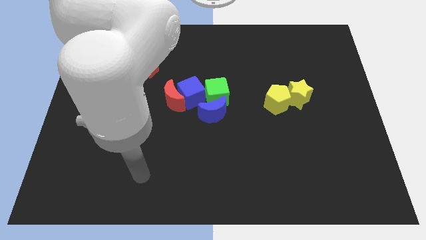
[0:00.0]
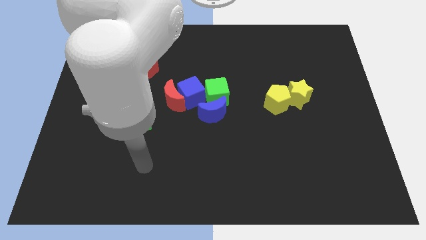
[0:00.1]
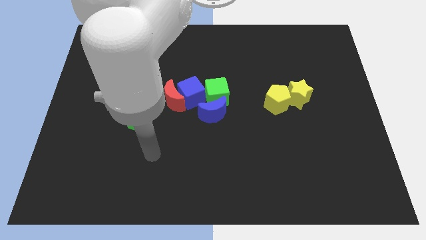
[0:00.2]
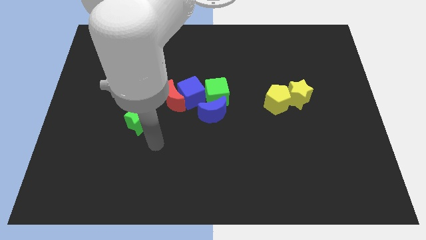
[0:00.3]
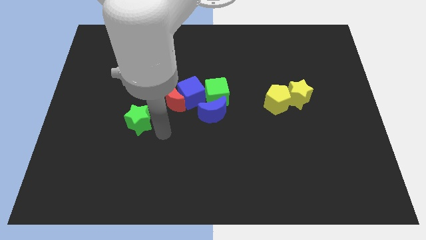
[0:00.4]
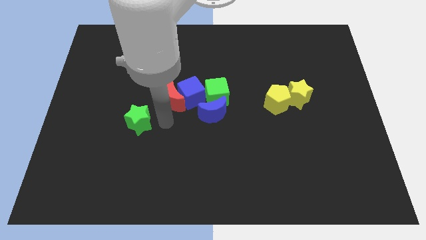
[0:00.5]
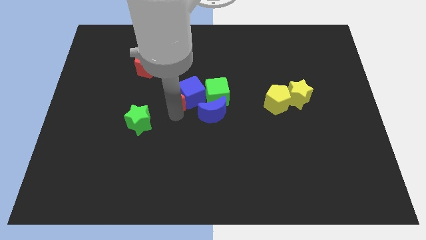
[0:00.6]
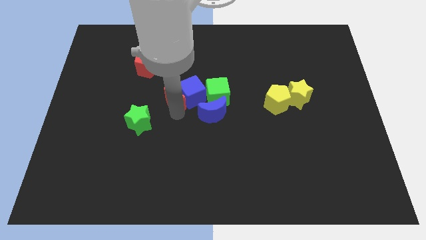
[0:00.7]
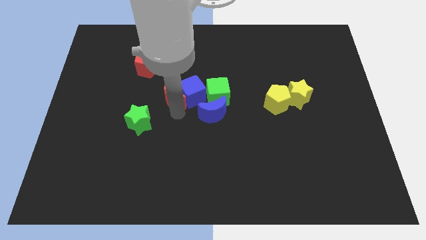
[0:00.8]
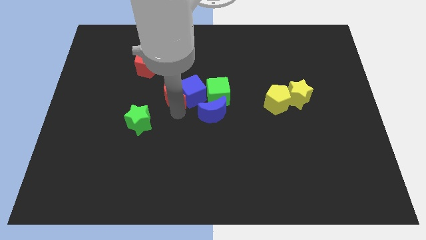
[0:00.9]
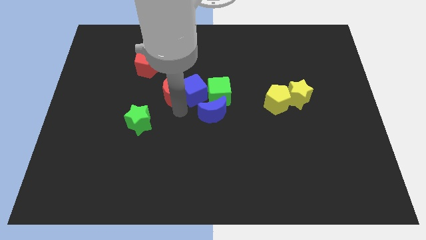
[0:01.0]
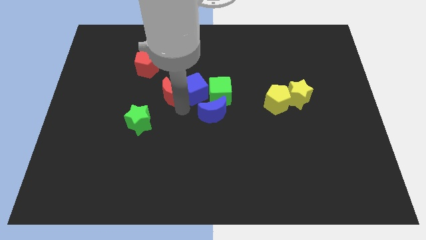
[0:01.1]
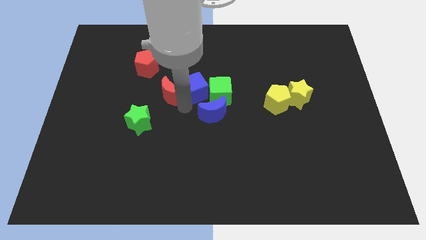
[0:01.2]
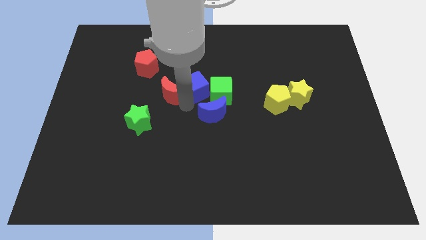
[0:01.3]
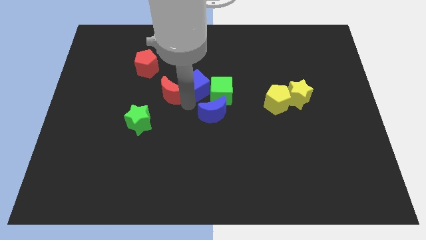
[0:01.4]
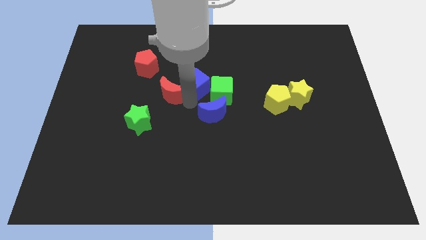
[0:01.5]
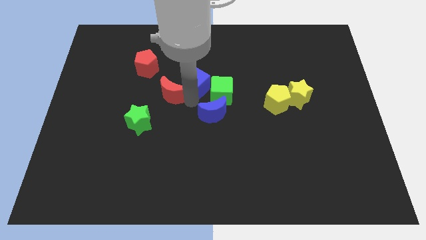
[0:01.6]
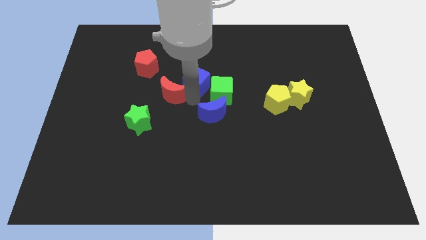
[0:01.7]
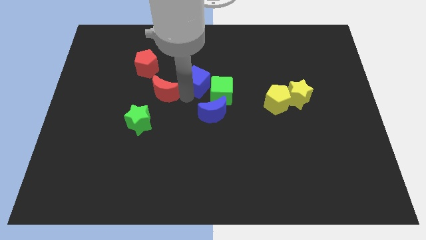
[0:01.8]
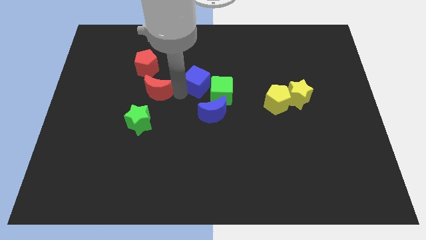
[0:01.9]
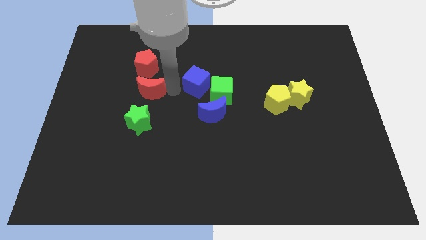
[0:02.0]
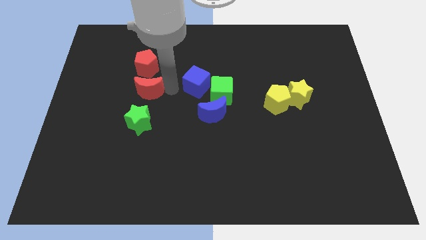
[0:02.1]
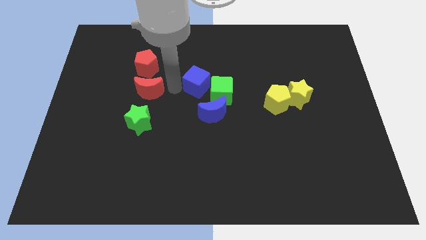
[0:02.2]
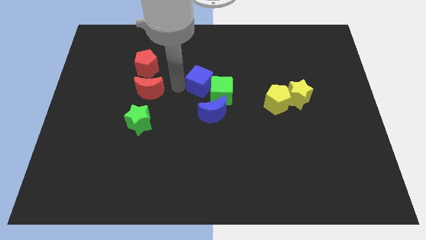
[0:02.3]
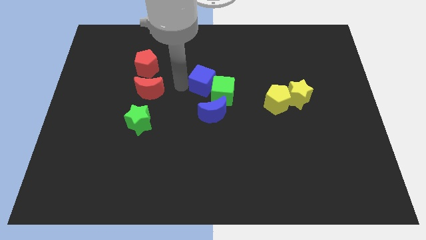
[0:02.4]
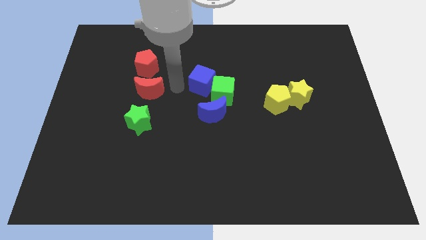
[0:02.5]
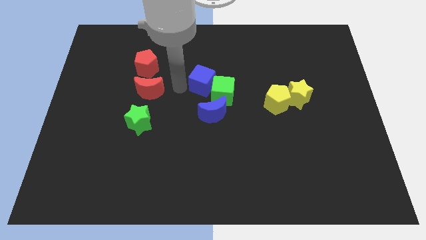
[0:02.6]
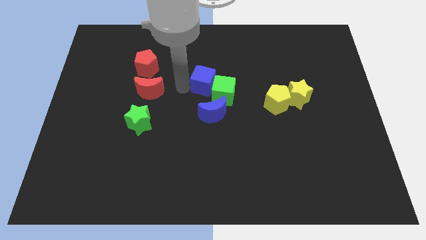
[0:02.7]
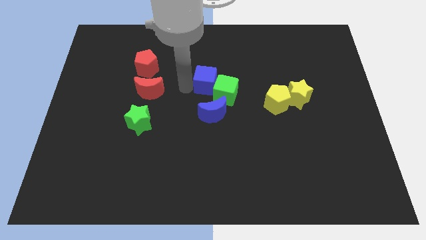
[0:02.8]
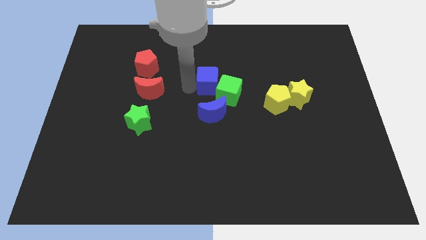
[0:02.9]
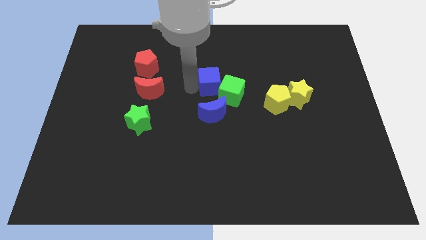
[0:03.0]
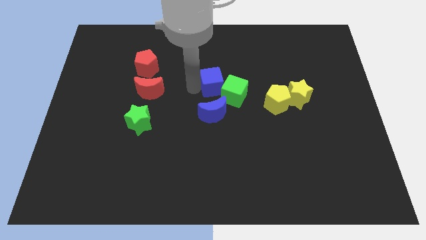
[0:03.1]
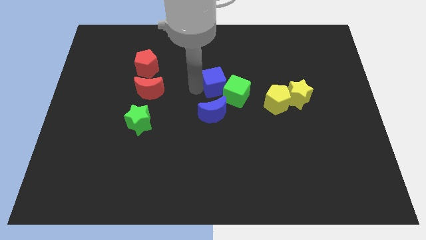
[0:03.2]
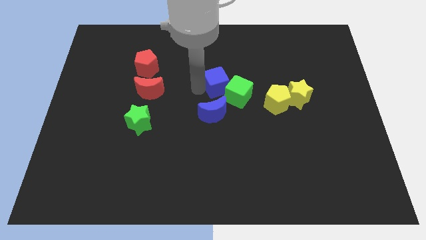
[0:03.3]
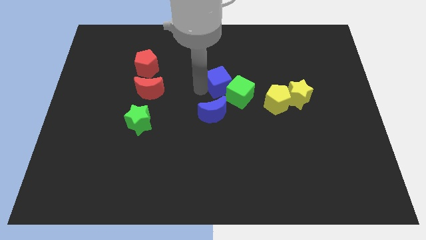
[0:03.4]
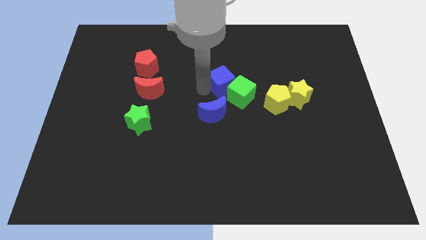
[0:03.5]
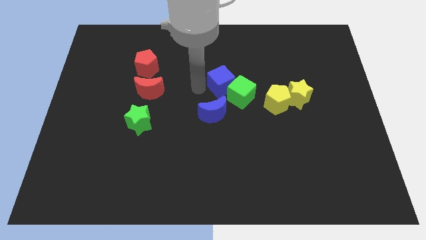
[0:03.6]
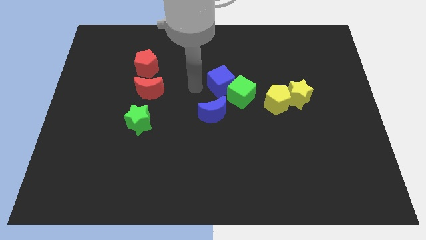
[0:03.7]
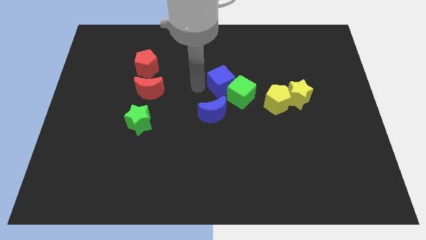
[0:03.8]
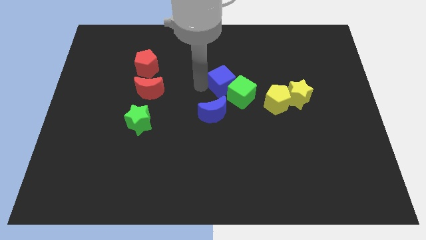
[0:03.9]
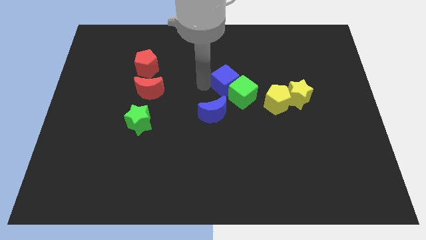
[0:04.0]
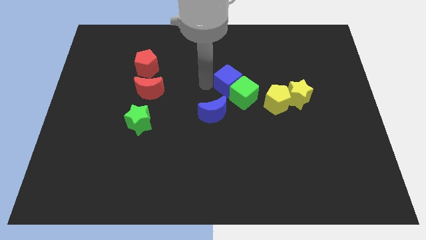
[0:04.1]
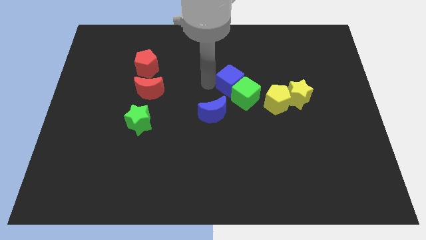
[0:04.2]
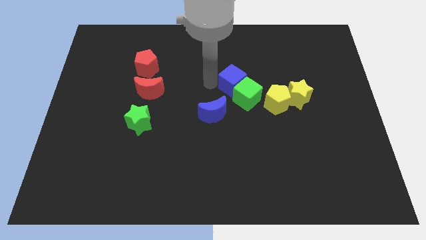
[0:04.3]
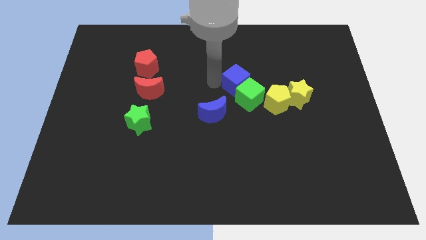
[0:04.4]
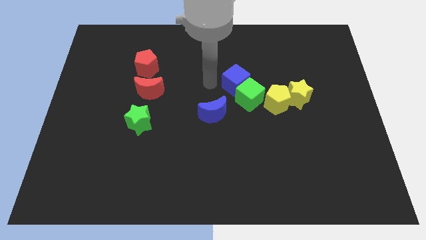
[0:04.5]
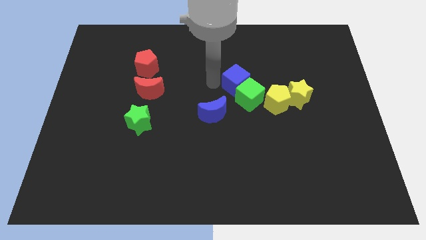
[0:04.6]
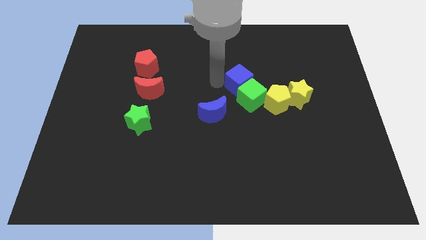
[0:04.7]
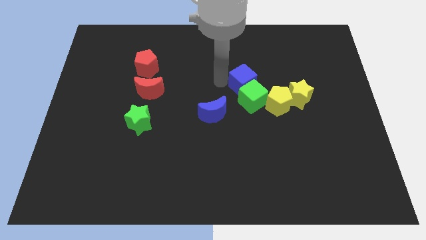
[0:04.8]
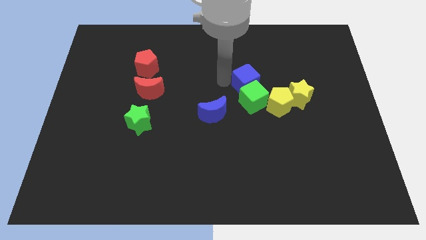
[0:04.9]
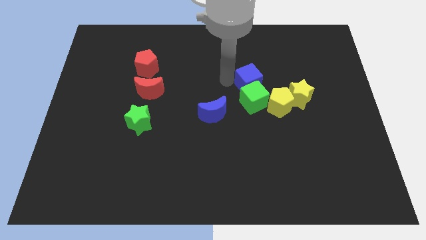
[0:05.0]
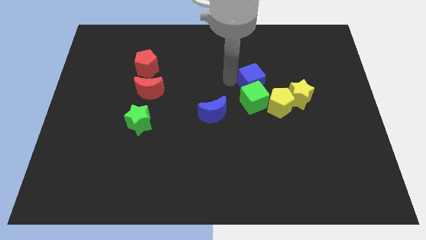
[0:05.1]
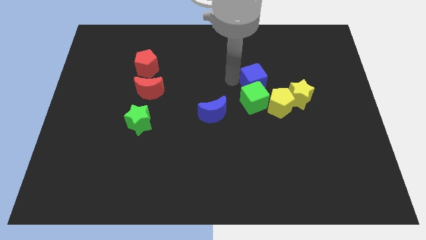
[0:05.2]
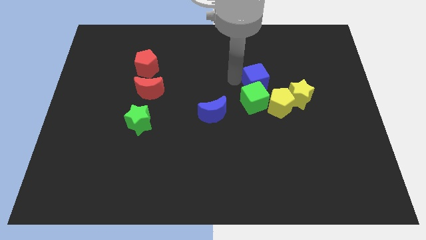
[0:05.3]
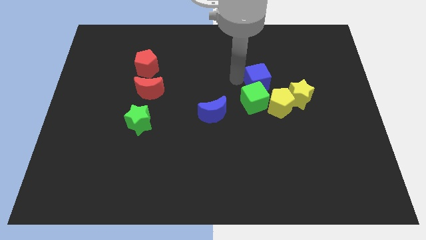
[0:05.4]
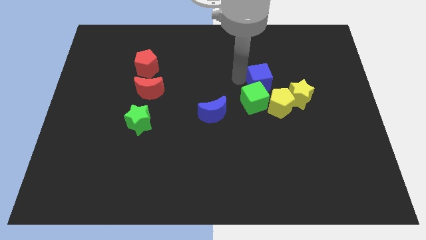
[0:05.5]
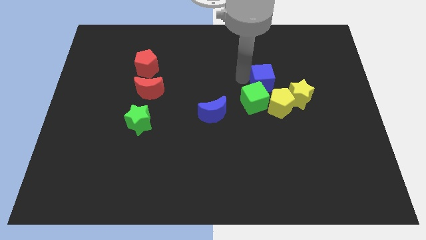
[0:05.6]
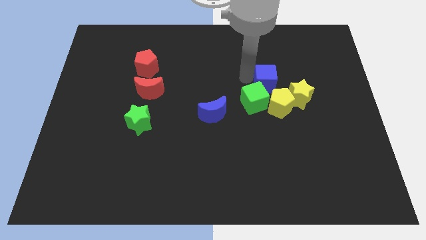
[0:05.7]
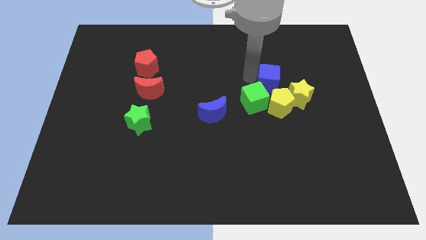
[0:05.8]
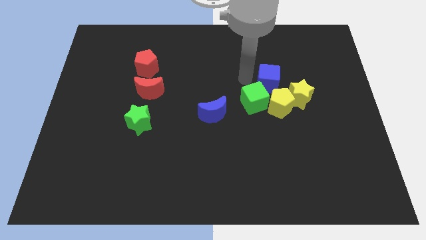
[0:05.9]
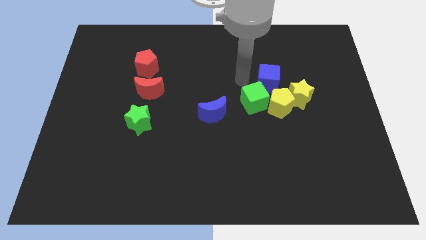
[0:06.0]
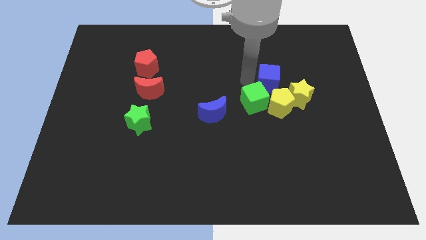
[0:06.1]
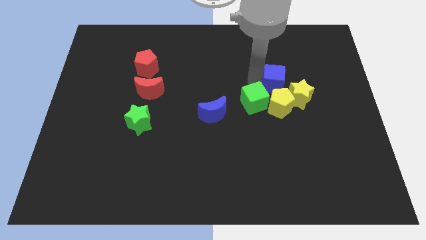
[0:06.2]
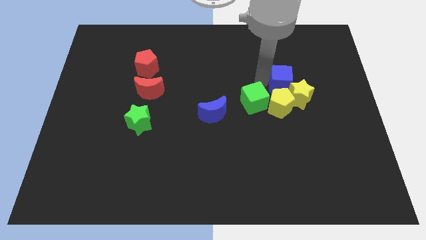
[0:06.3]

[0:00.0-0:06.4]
push the blue cube to the right

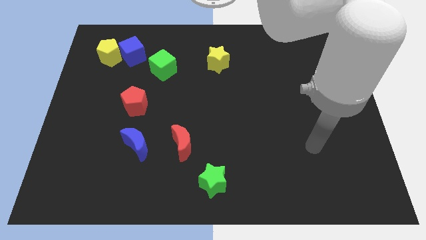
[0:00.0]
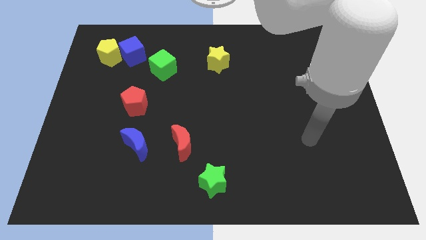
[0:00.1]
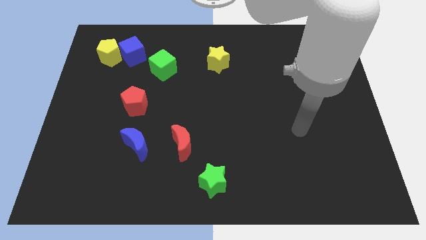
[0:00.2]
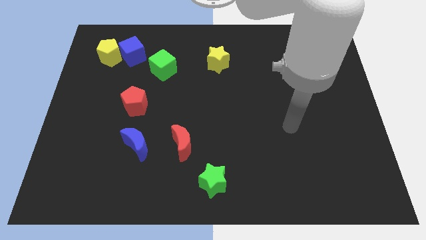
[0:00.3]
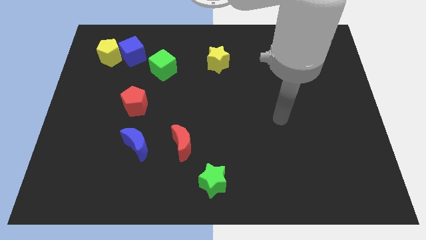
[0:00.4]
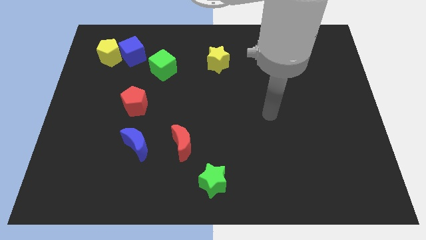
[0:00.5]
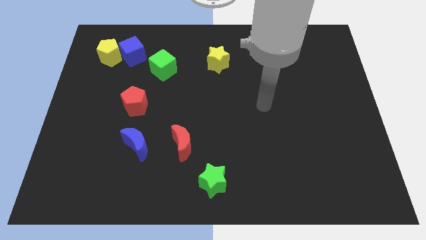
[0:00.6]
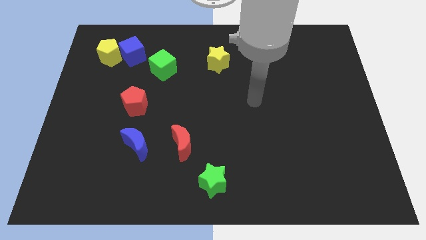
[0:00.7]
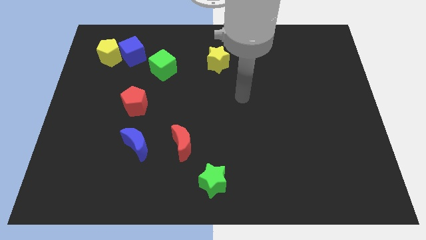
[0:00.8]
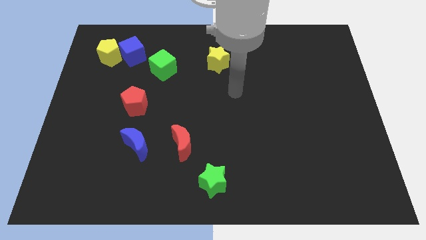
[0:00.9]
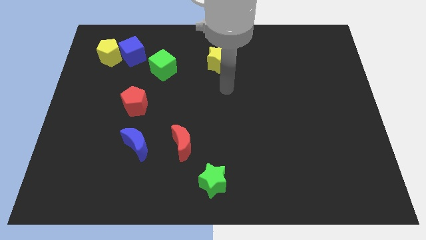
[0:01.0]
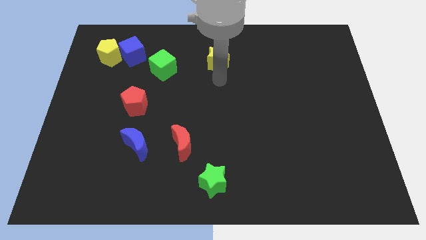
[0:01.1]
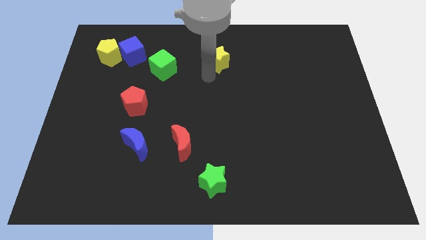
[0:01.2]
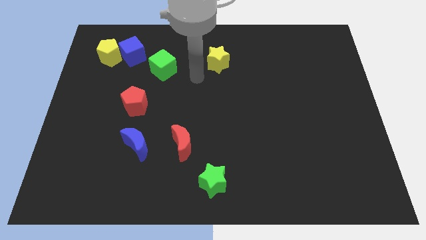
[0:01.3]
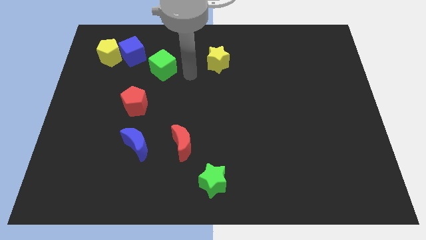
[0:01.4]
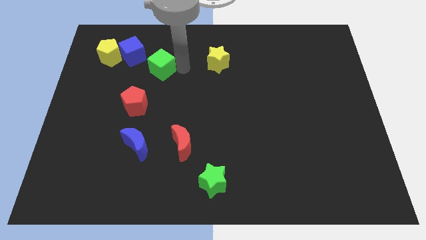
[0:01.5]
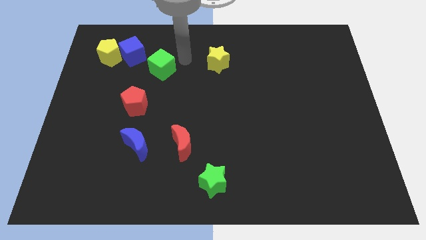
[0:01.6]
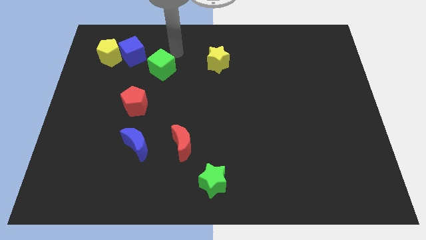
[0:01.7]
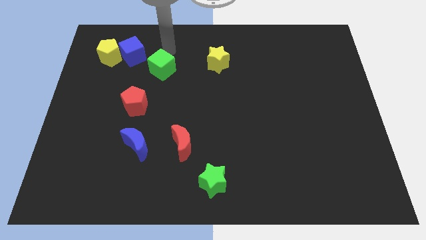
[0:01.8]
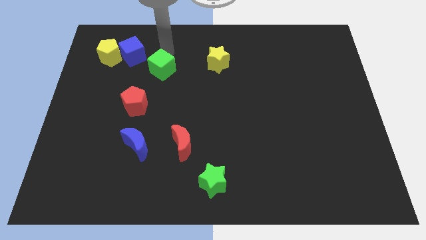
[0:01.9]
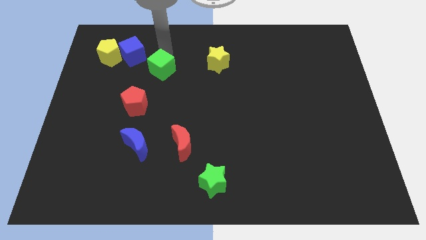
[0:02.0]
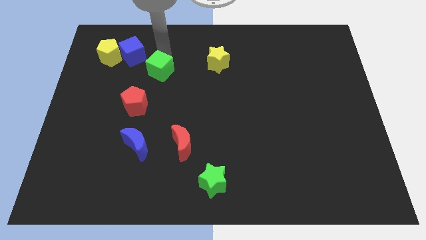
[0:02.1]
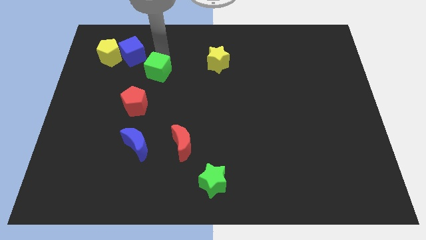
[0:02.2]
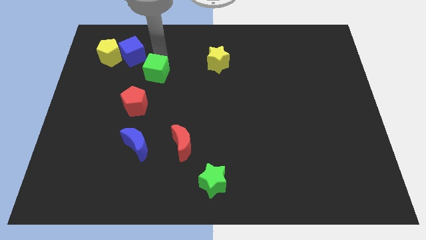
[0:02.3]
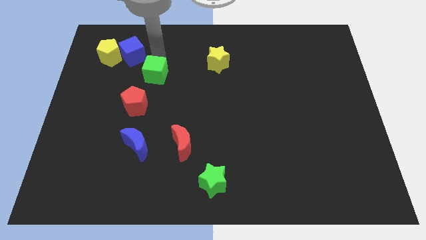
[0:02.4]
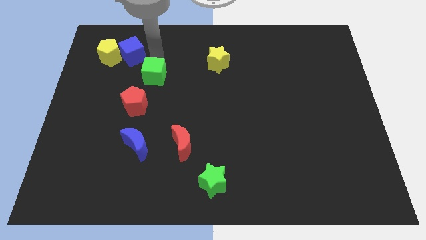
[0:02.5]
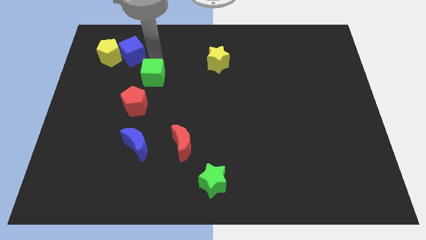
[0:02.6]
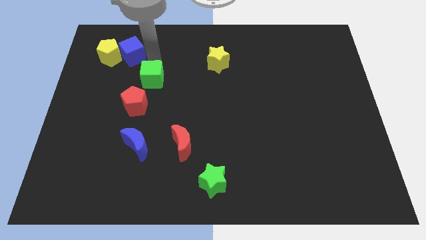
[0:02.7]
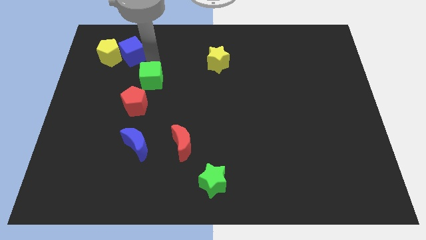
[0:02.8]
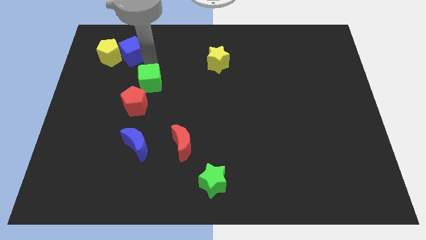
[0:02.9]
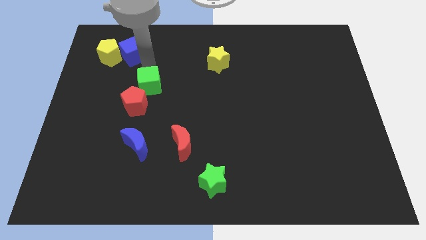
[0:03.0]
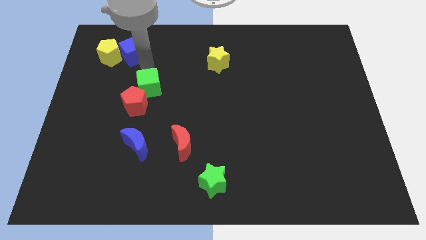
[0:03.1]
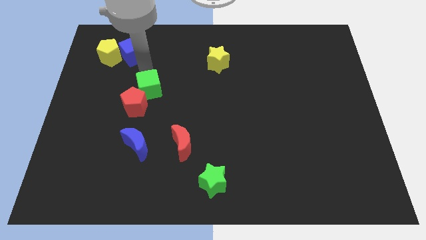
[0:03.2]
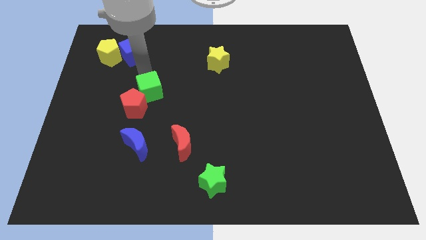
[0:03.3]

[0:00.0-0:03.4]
move the green cube downwards a little bit
